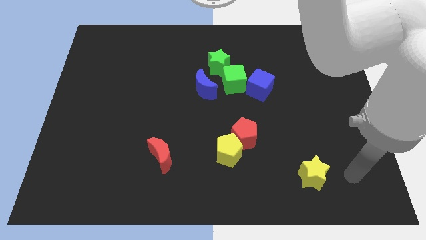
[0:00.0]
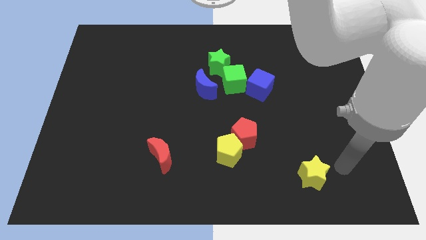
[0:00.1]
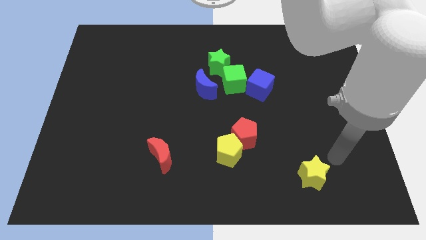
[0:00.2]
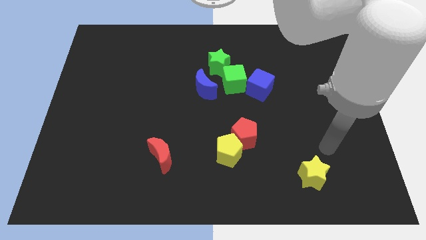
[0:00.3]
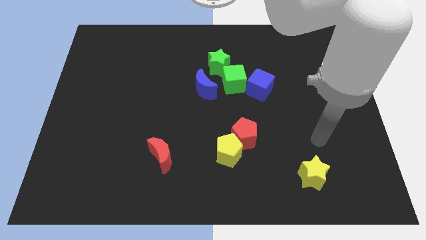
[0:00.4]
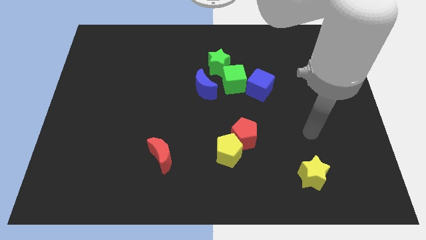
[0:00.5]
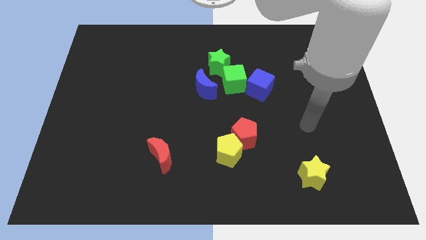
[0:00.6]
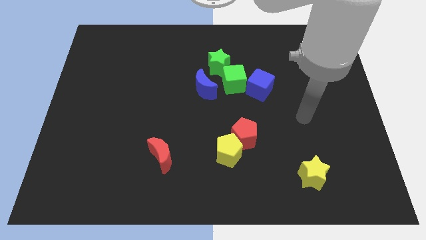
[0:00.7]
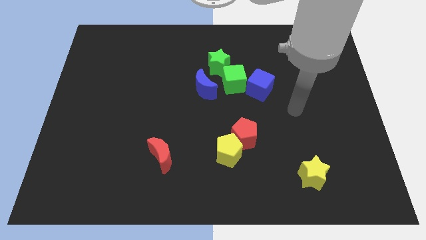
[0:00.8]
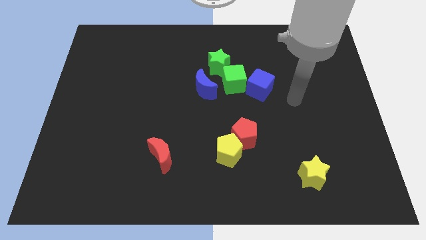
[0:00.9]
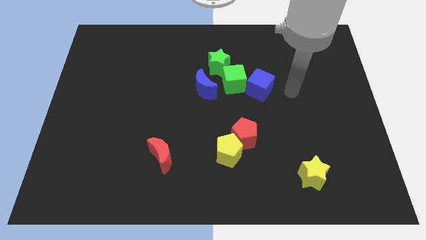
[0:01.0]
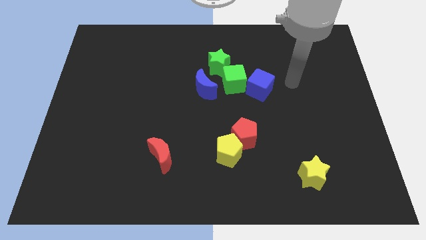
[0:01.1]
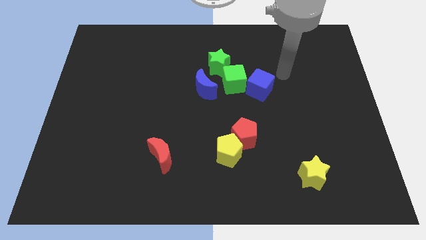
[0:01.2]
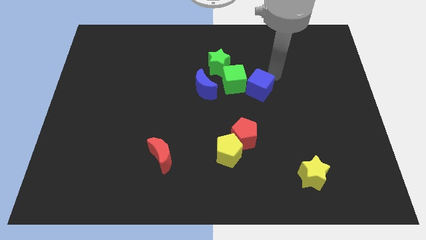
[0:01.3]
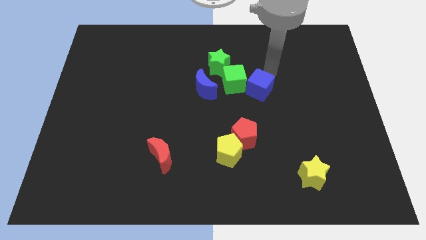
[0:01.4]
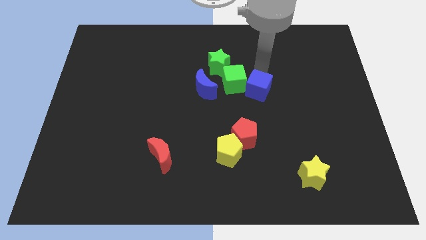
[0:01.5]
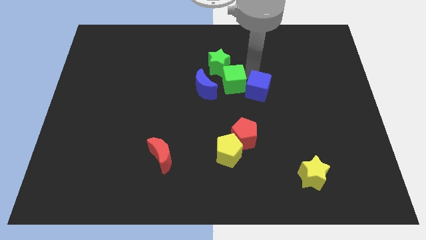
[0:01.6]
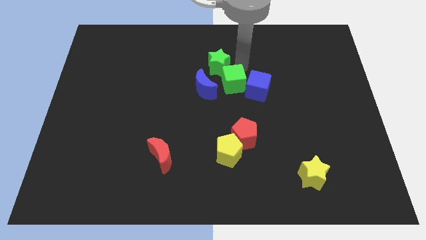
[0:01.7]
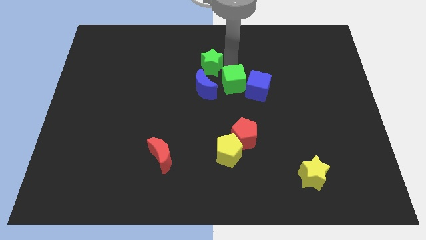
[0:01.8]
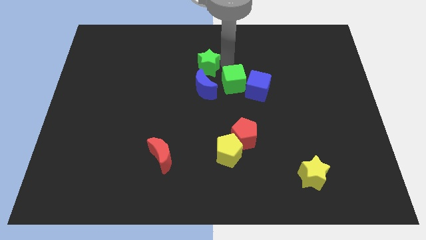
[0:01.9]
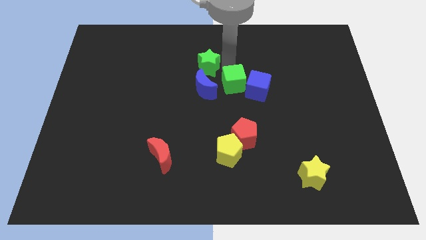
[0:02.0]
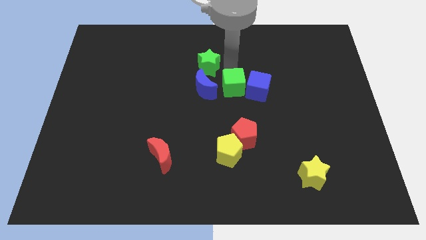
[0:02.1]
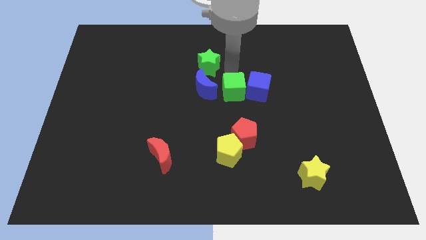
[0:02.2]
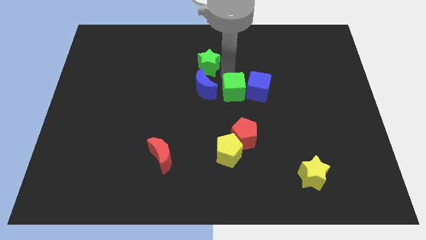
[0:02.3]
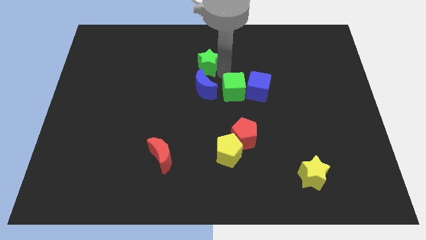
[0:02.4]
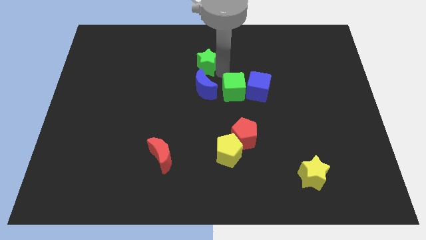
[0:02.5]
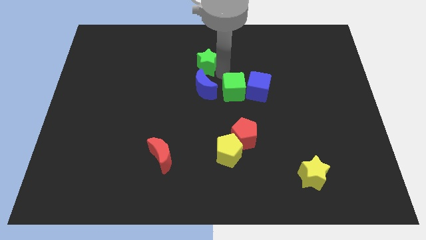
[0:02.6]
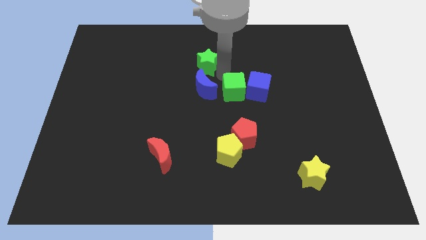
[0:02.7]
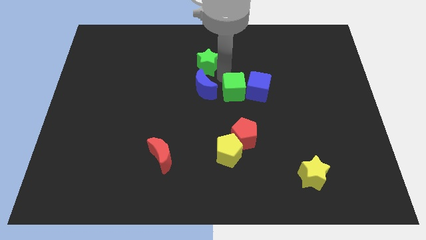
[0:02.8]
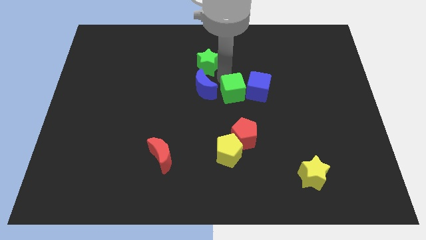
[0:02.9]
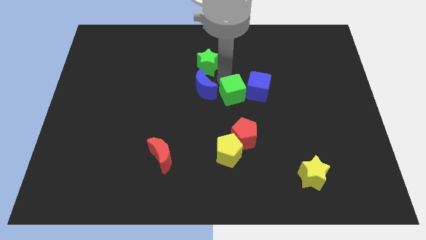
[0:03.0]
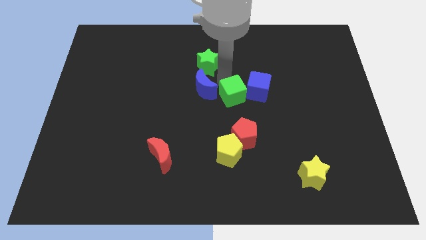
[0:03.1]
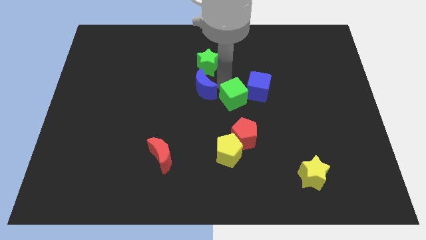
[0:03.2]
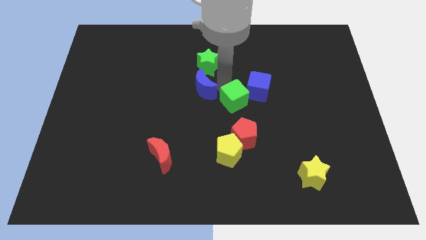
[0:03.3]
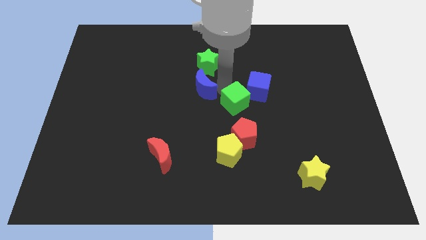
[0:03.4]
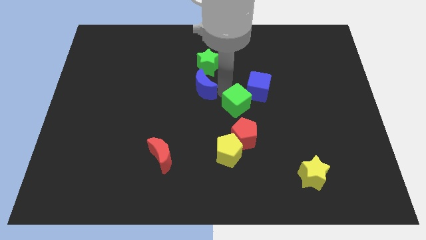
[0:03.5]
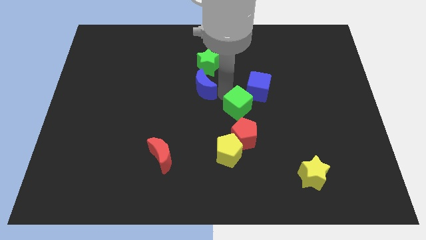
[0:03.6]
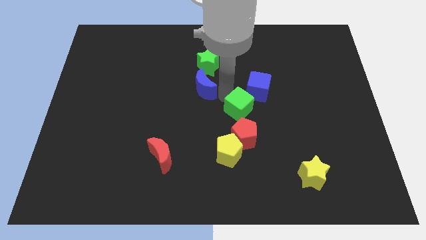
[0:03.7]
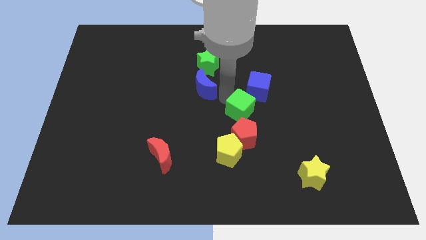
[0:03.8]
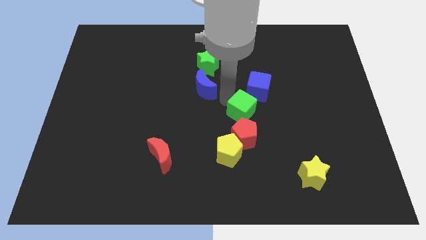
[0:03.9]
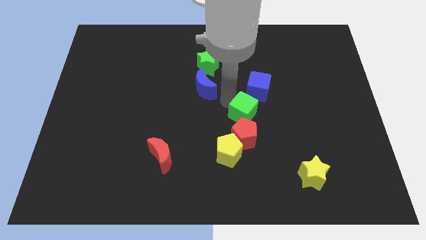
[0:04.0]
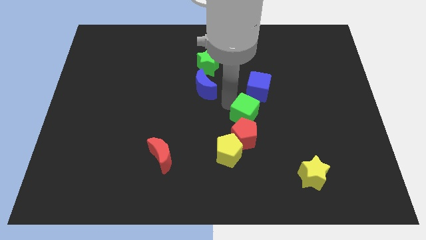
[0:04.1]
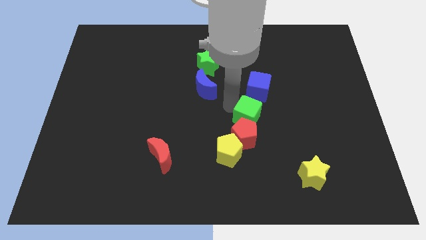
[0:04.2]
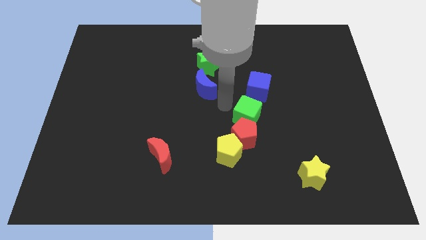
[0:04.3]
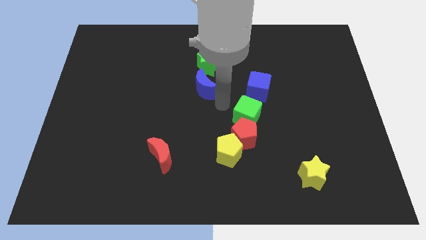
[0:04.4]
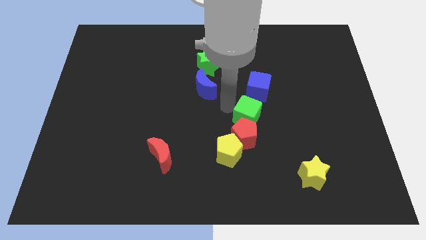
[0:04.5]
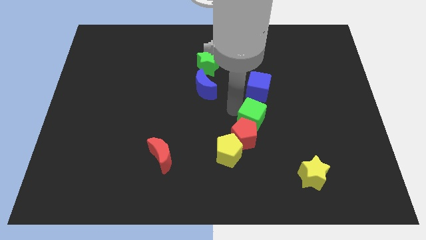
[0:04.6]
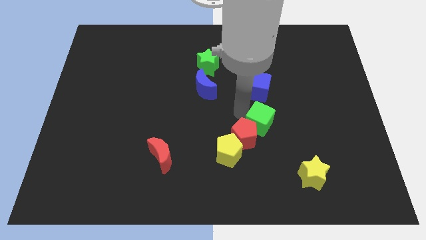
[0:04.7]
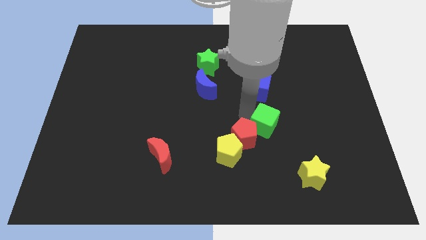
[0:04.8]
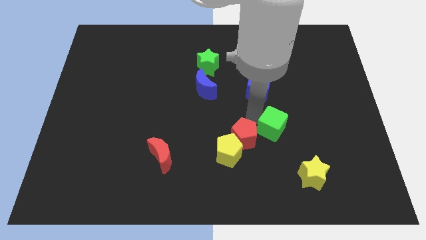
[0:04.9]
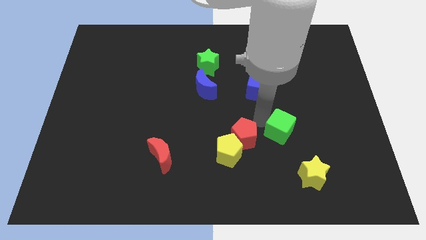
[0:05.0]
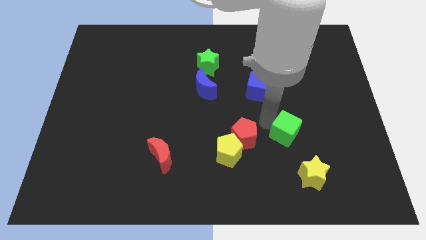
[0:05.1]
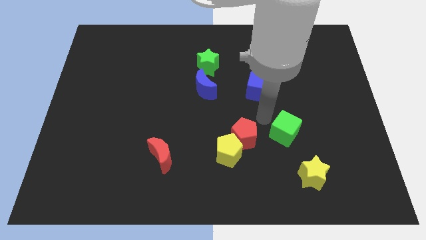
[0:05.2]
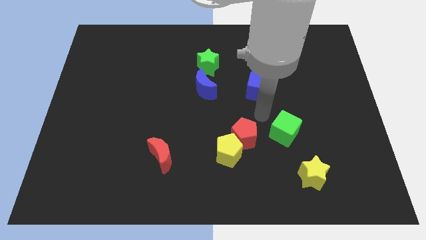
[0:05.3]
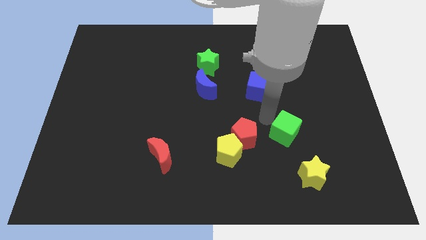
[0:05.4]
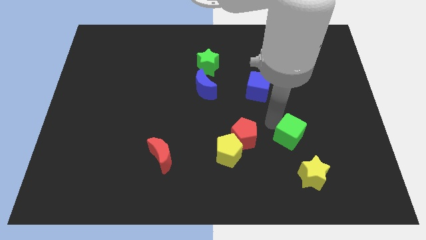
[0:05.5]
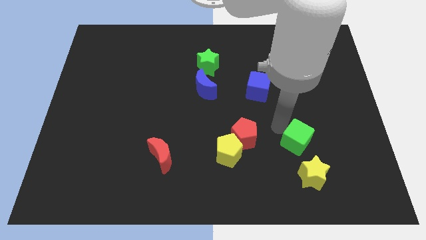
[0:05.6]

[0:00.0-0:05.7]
slide the green cube down and then to the right

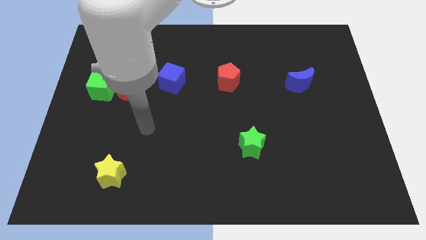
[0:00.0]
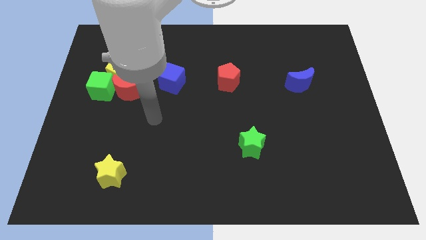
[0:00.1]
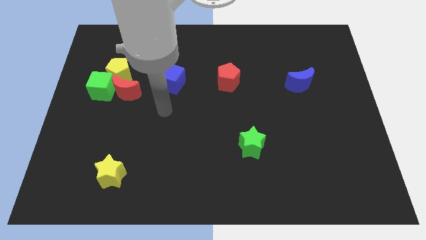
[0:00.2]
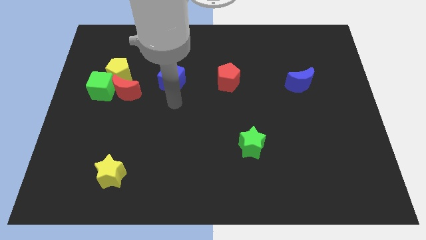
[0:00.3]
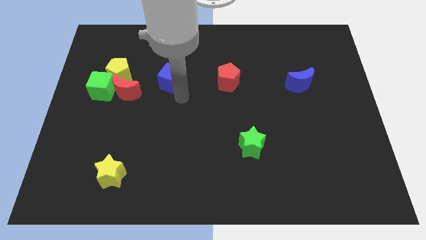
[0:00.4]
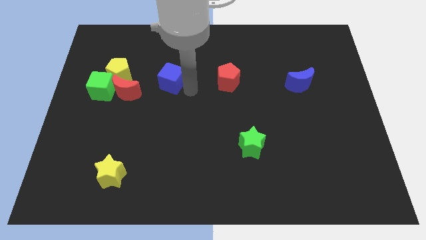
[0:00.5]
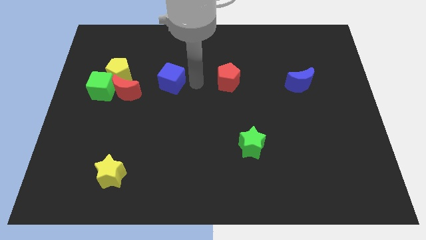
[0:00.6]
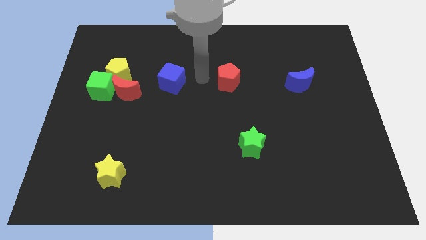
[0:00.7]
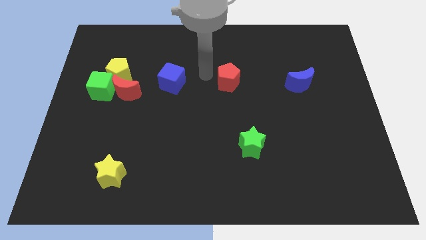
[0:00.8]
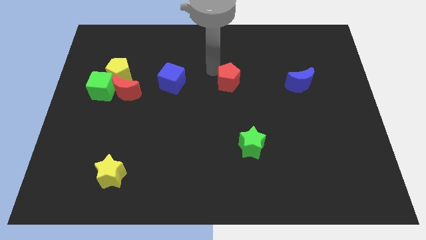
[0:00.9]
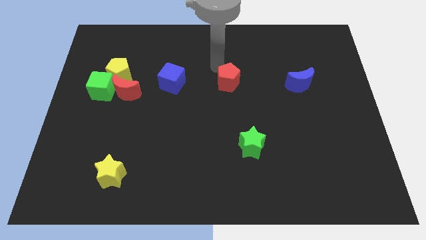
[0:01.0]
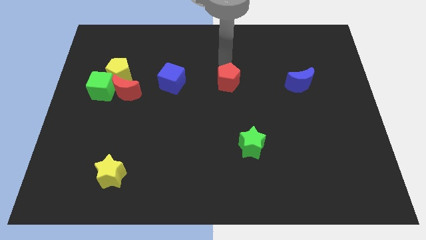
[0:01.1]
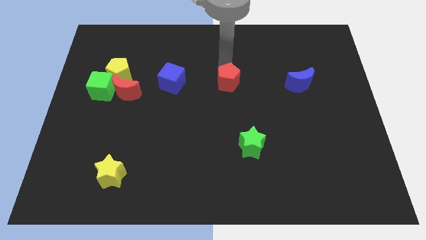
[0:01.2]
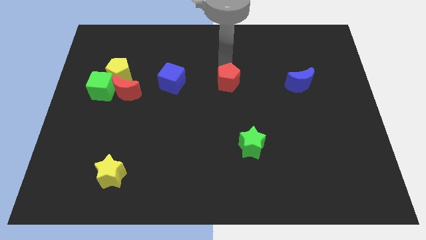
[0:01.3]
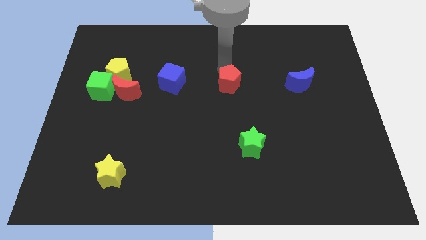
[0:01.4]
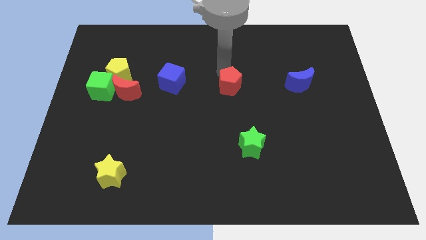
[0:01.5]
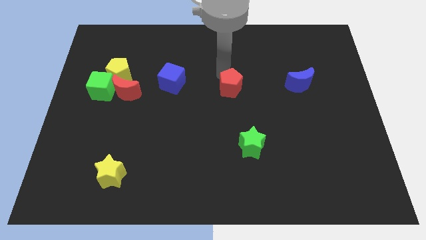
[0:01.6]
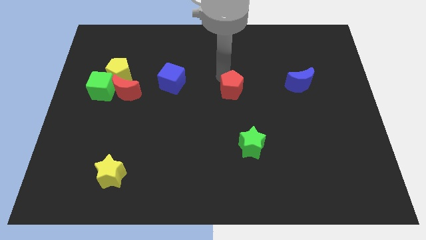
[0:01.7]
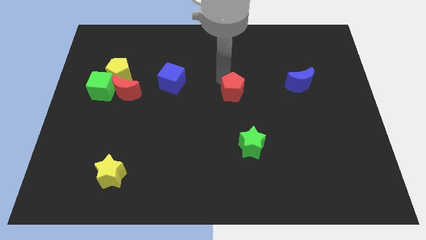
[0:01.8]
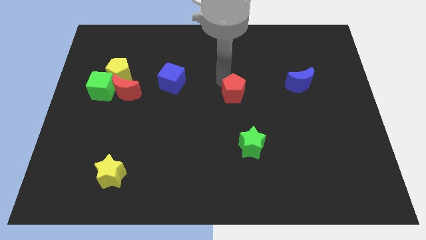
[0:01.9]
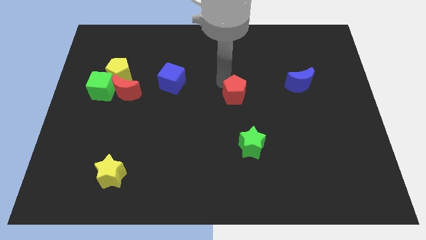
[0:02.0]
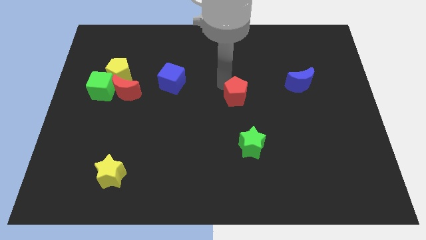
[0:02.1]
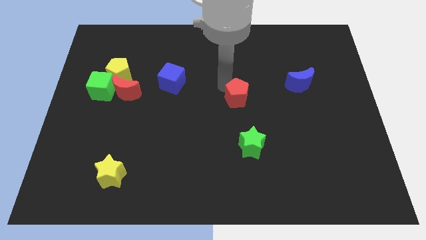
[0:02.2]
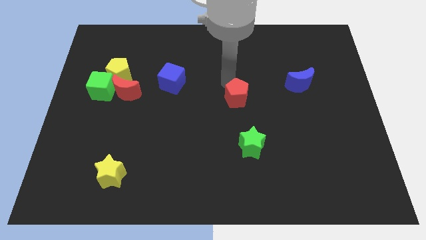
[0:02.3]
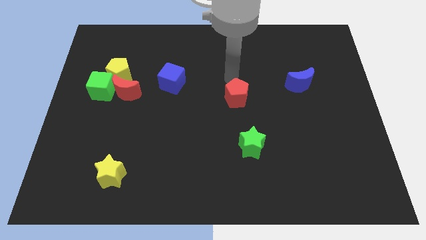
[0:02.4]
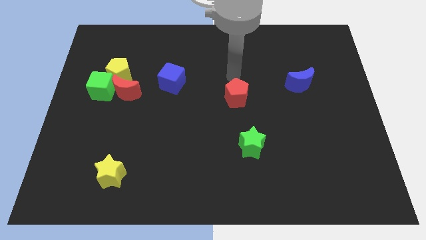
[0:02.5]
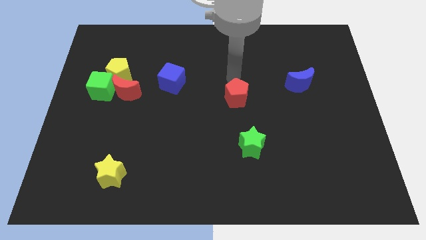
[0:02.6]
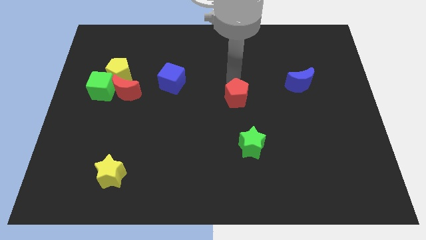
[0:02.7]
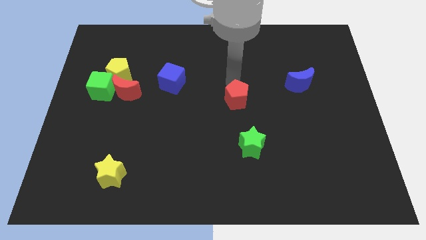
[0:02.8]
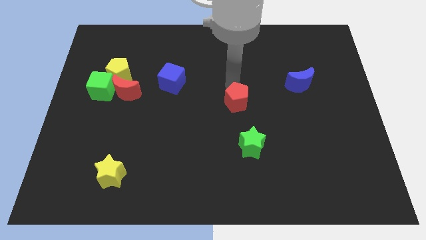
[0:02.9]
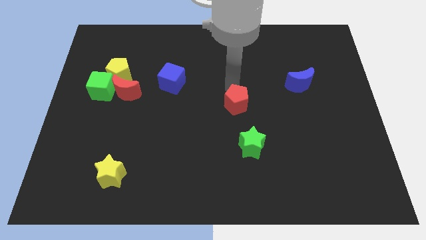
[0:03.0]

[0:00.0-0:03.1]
slightly slide the red pentagon down
